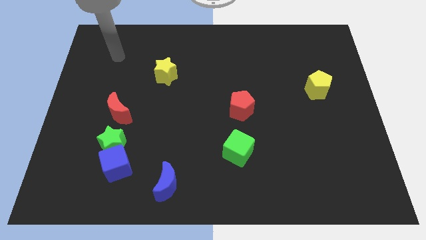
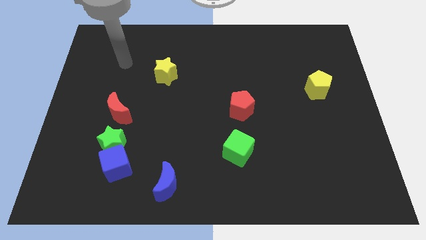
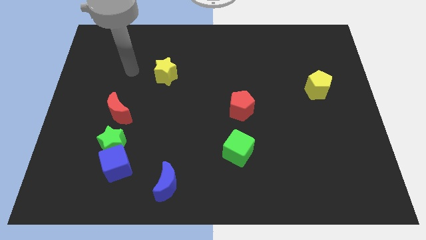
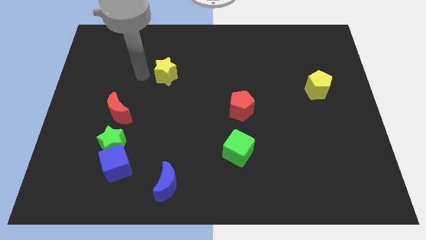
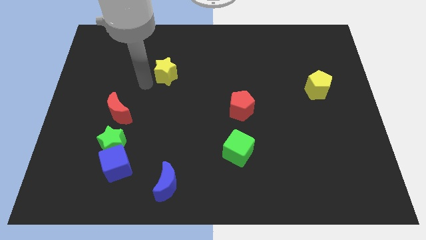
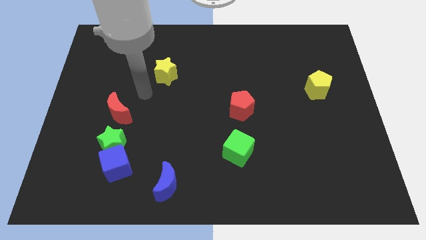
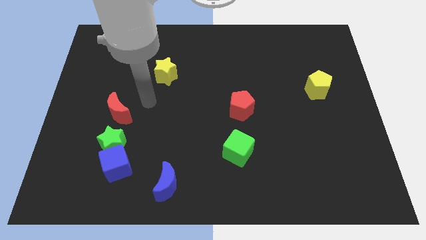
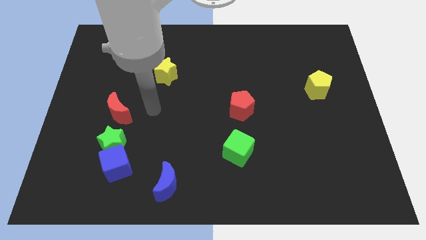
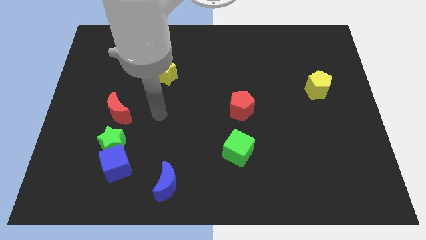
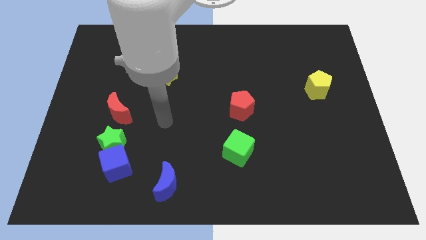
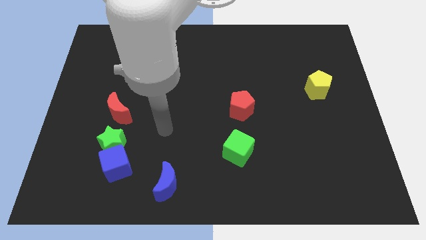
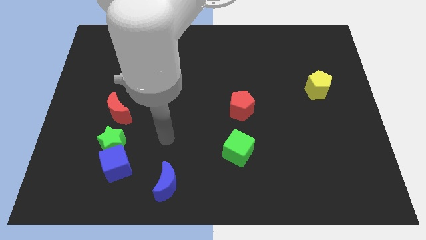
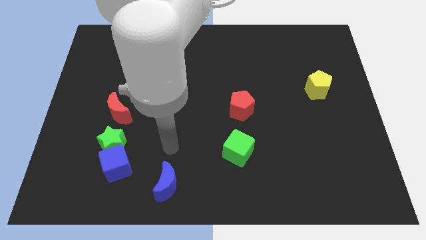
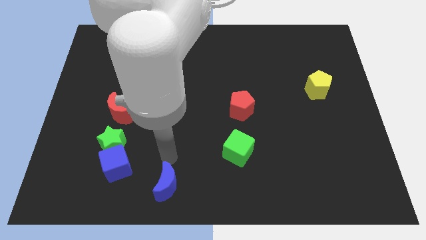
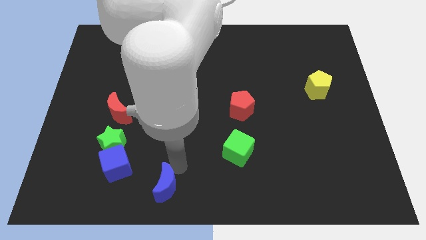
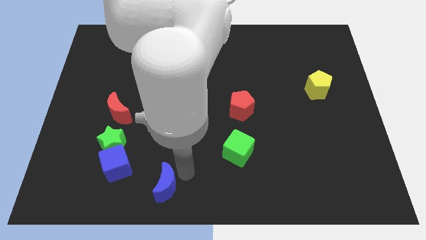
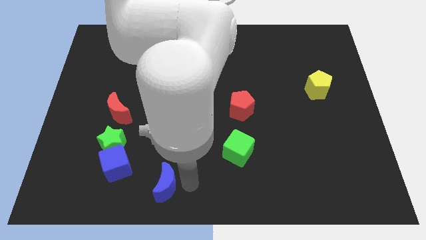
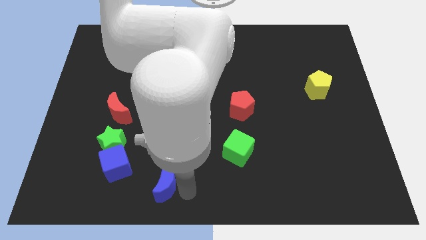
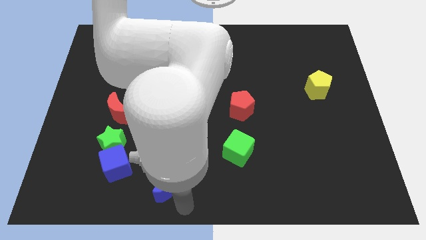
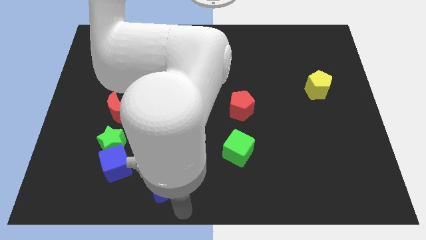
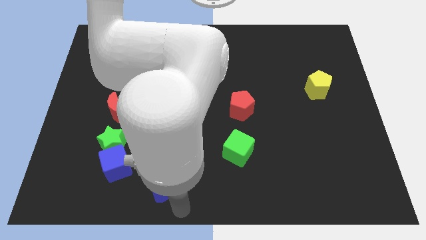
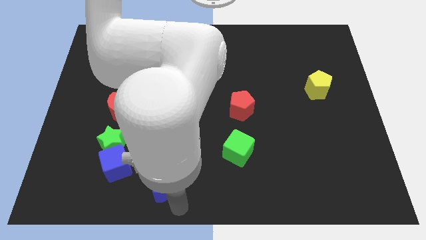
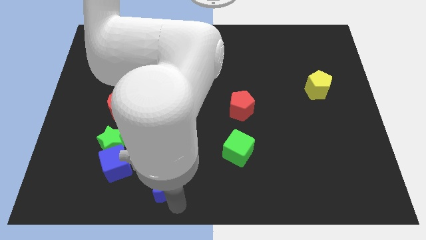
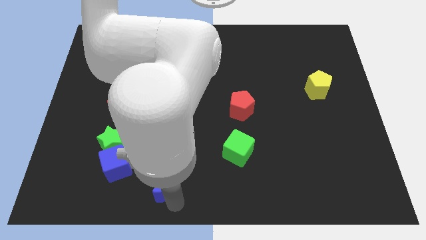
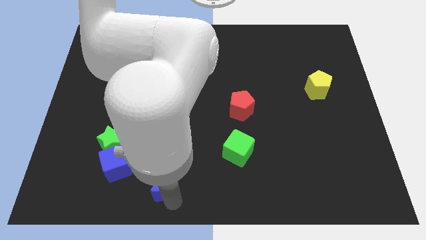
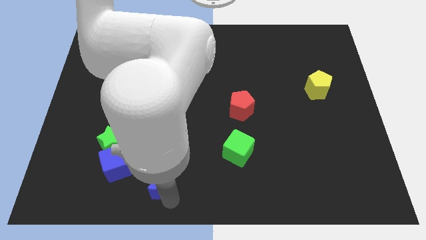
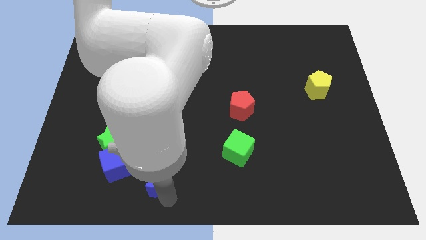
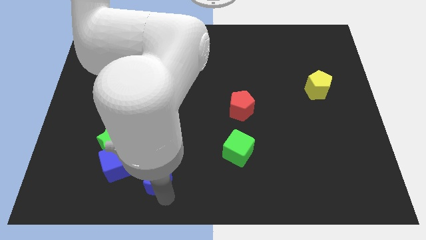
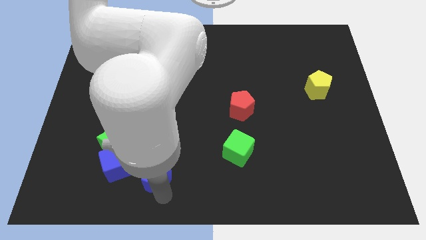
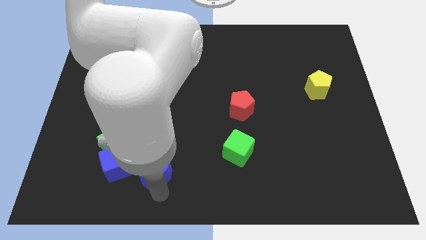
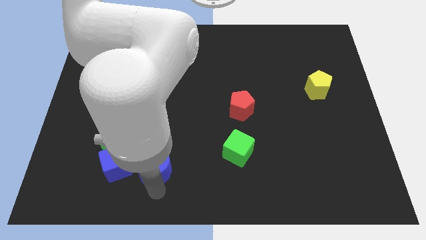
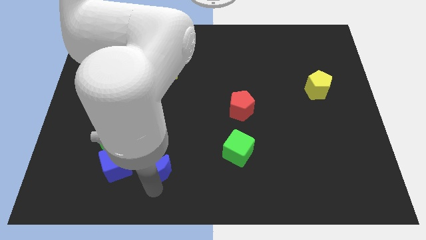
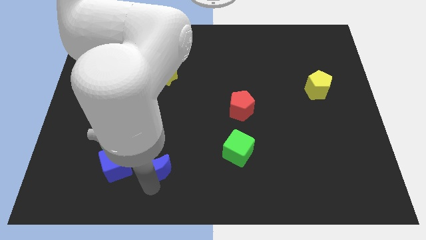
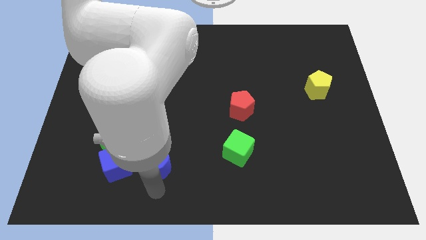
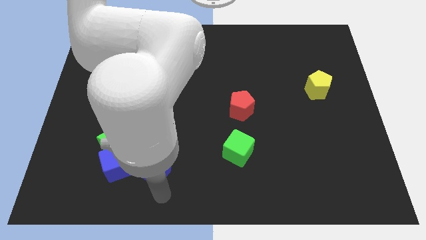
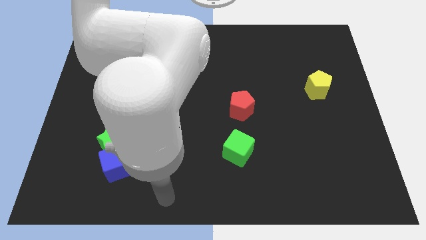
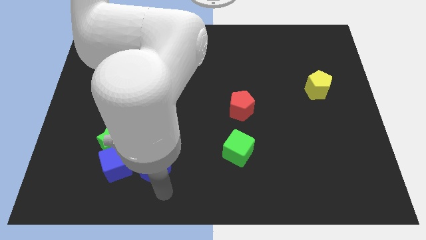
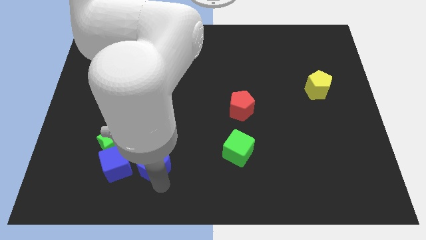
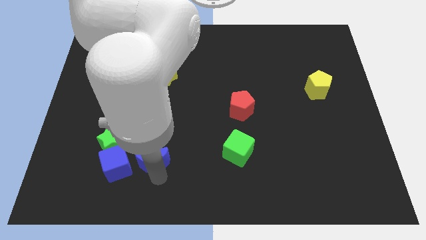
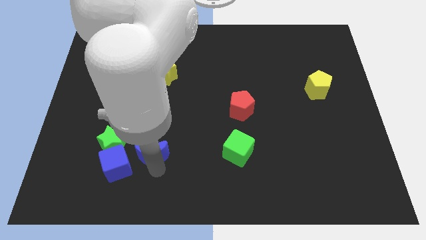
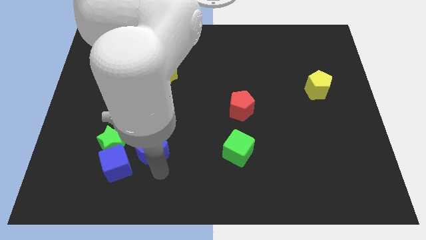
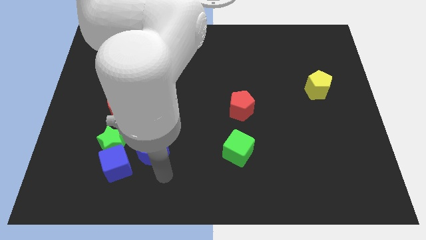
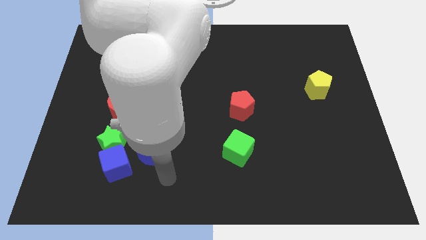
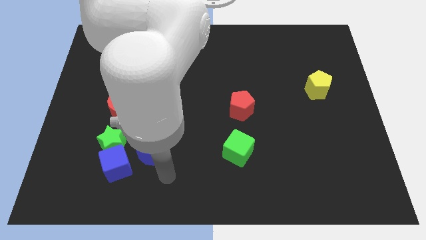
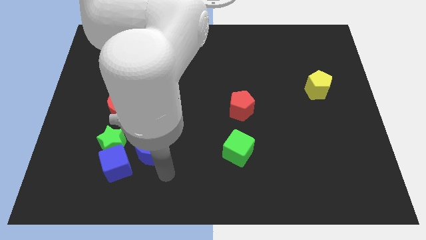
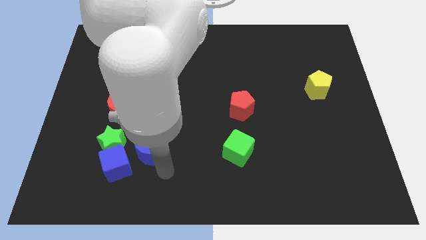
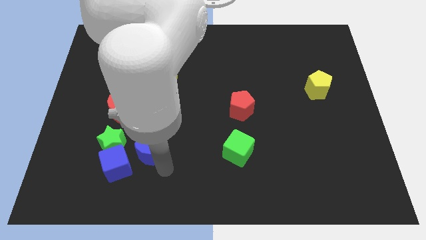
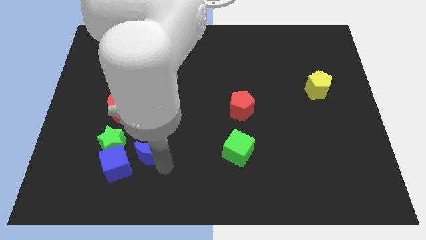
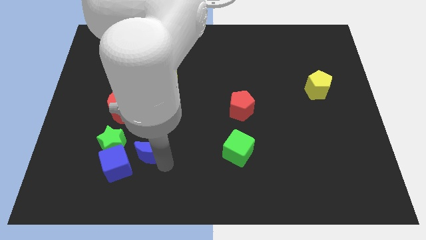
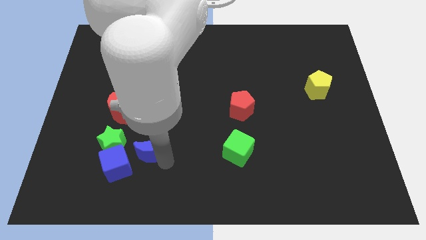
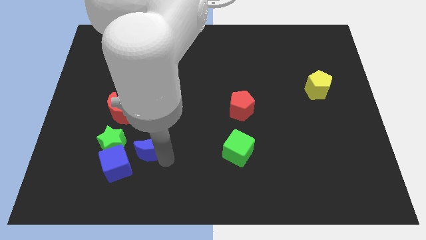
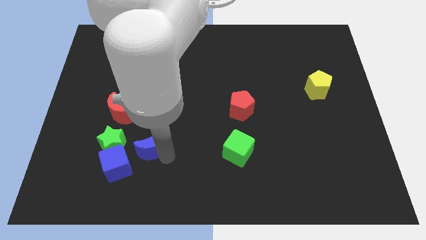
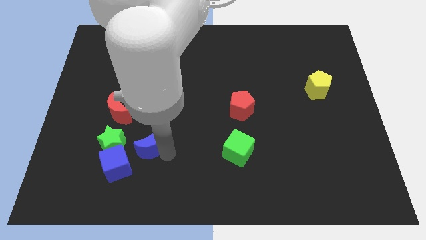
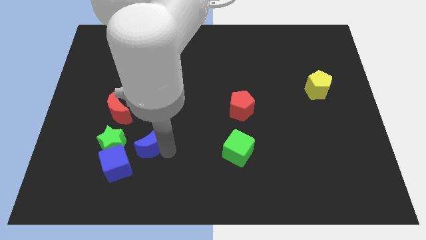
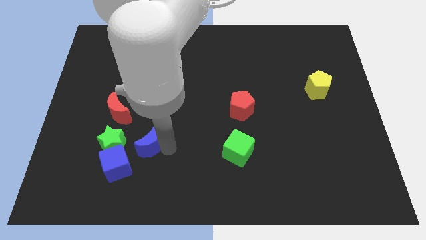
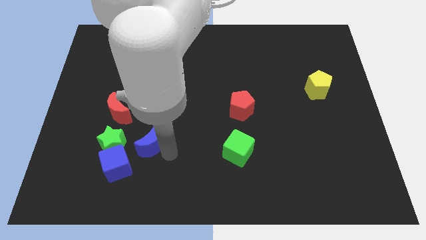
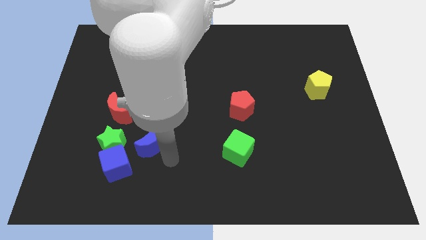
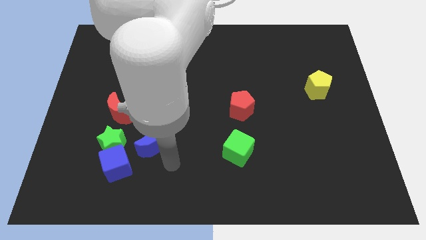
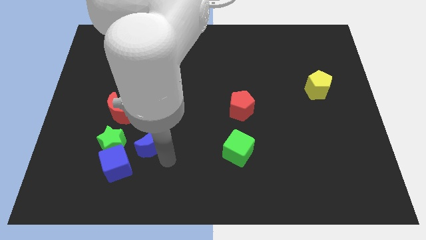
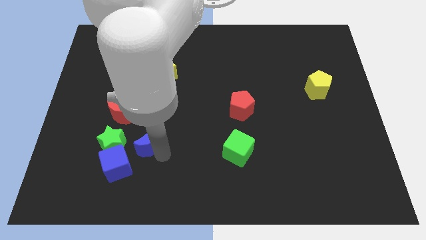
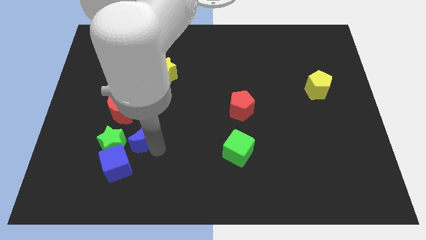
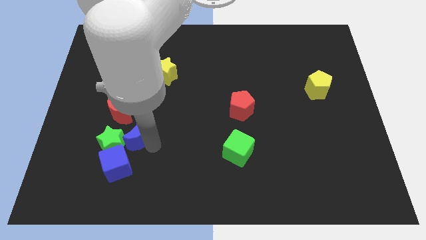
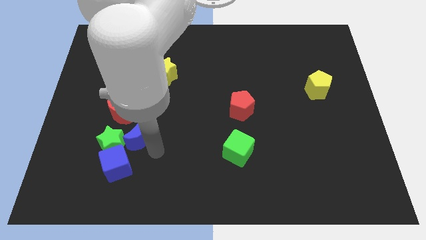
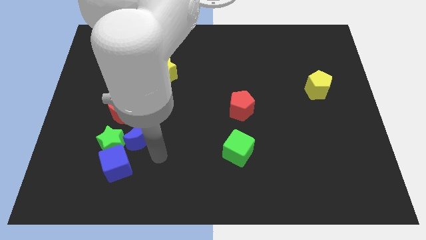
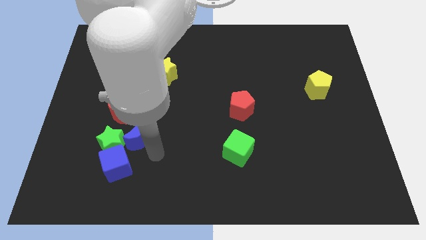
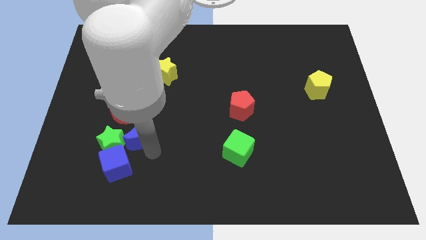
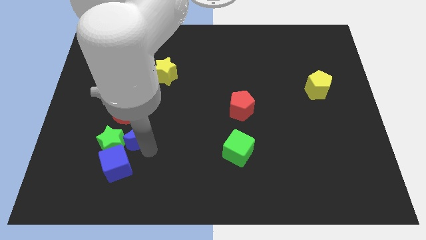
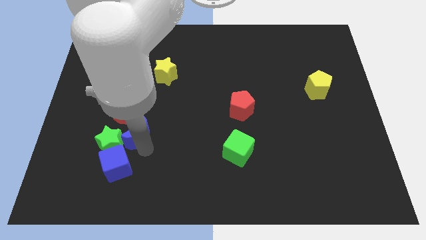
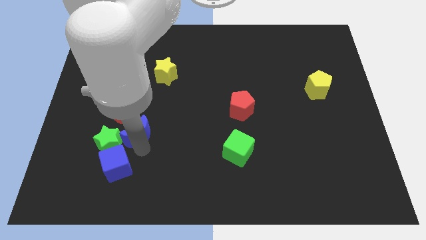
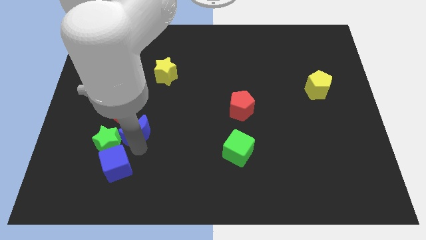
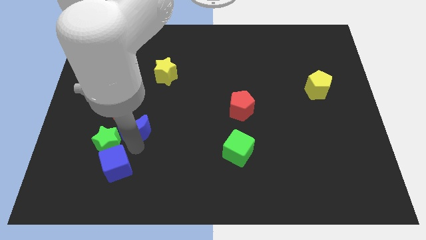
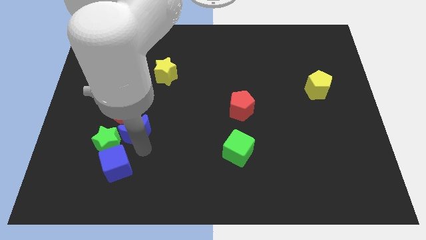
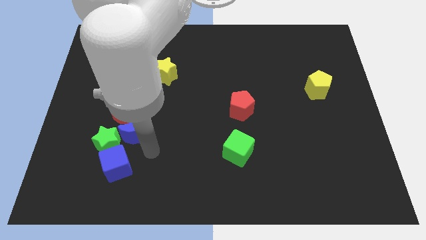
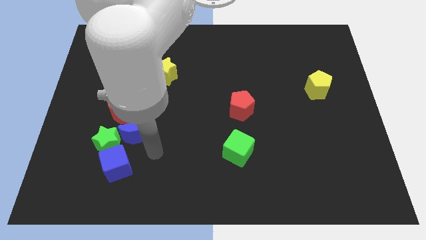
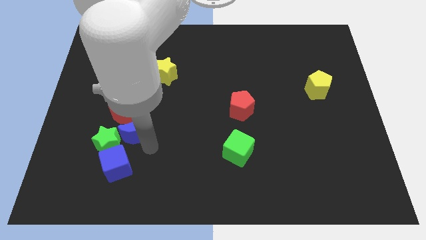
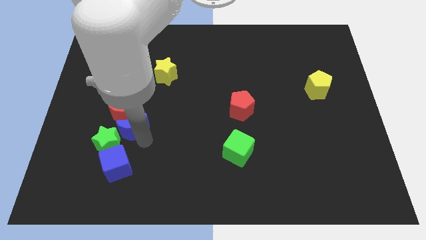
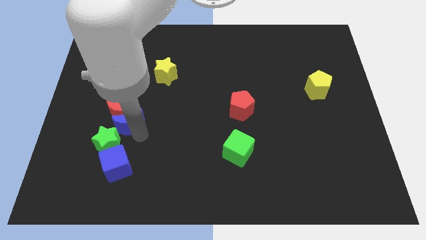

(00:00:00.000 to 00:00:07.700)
slide the blue moon next to the red moon
